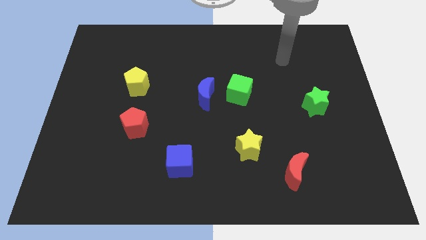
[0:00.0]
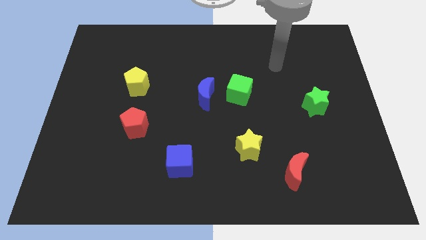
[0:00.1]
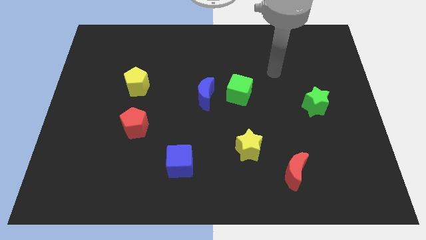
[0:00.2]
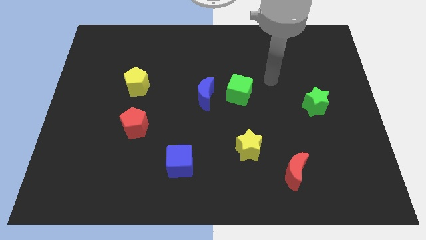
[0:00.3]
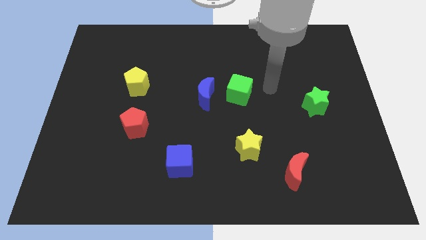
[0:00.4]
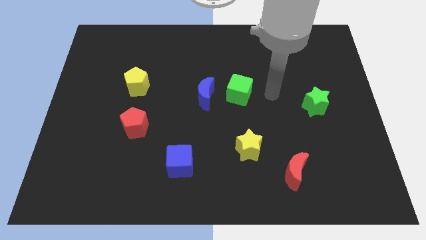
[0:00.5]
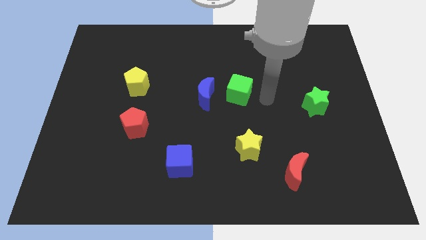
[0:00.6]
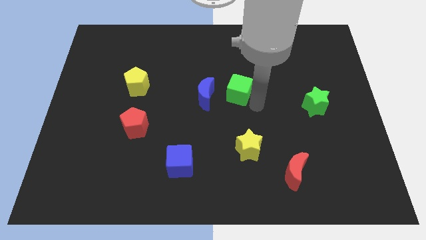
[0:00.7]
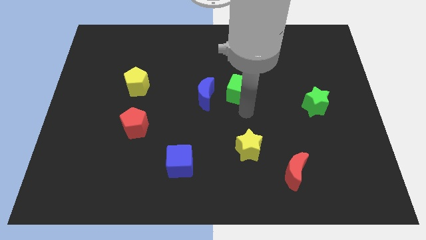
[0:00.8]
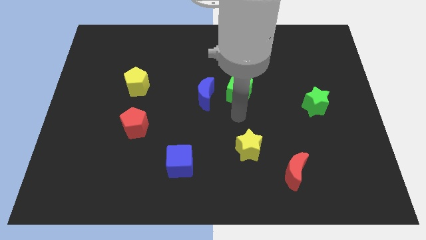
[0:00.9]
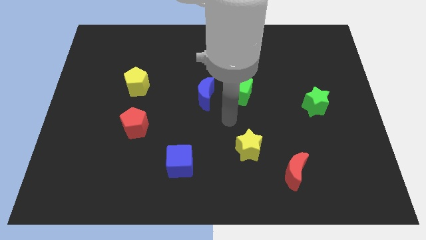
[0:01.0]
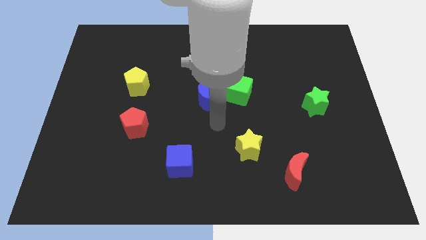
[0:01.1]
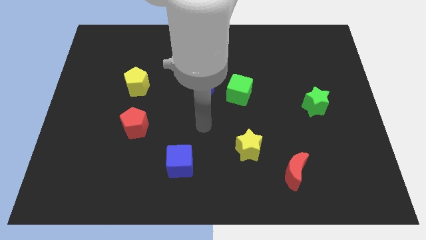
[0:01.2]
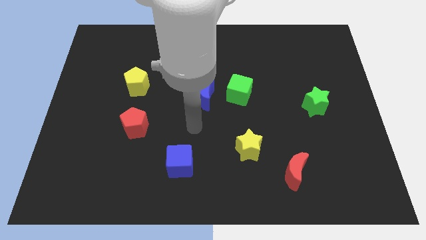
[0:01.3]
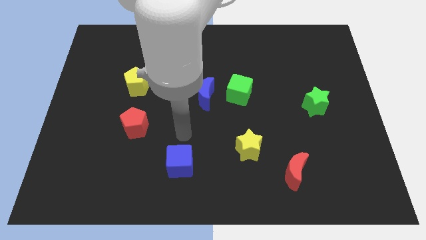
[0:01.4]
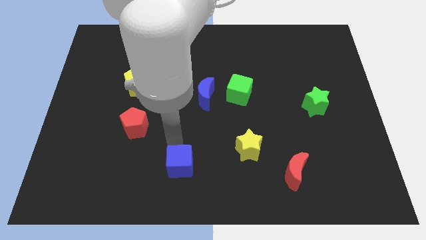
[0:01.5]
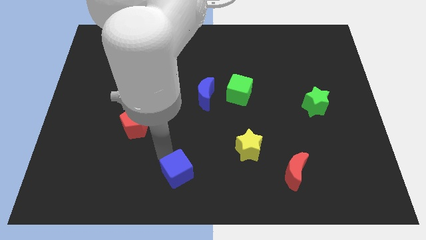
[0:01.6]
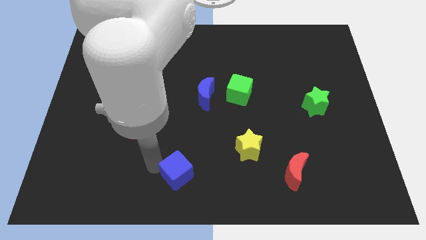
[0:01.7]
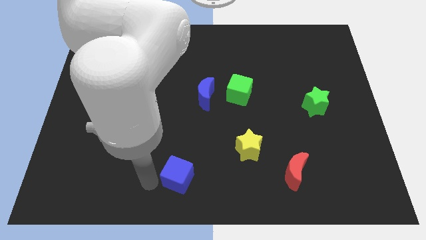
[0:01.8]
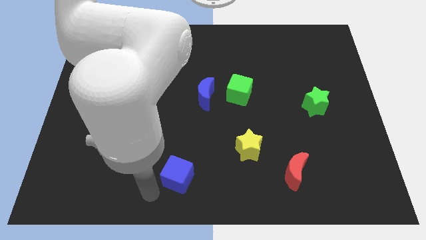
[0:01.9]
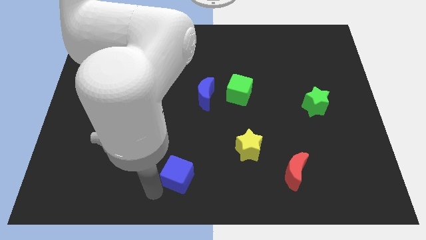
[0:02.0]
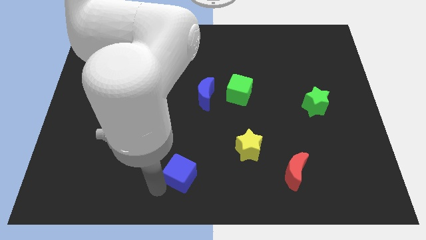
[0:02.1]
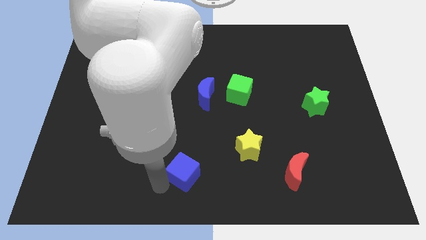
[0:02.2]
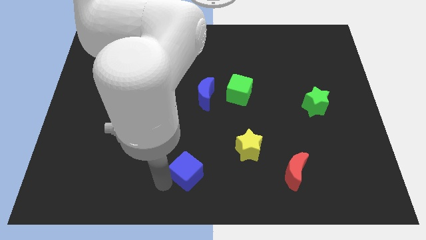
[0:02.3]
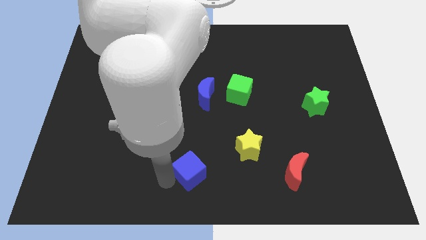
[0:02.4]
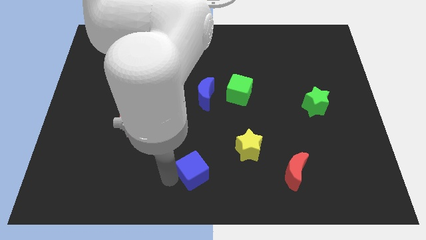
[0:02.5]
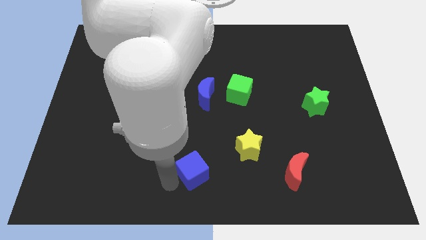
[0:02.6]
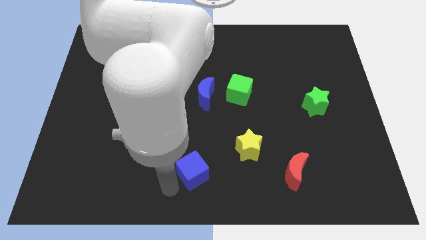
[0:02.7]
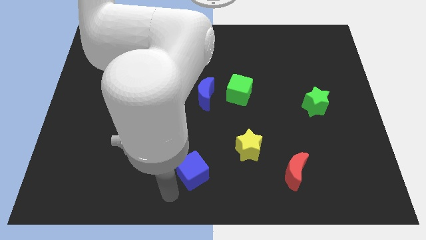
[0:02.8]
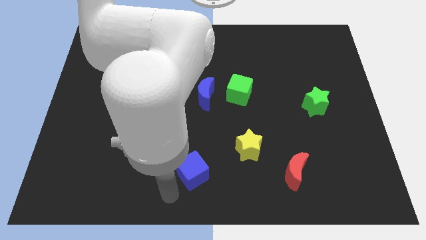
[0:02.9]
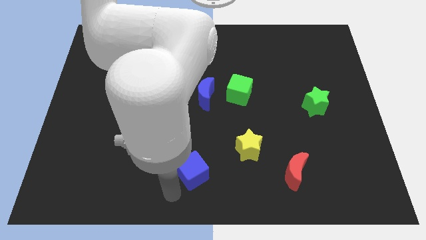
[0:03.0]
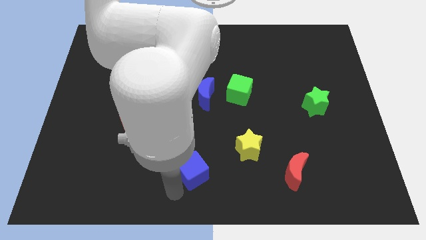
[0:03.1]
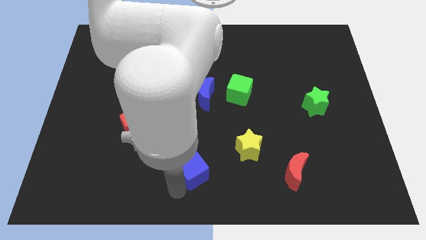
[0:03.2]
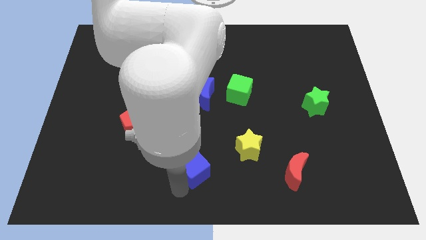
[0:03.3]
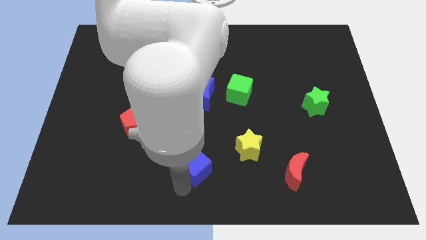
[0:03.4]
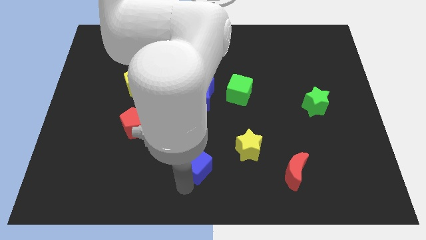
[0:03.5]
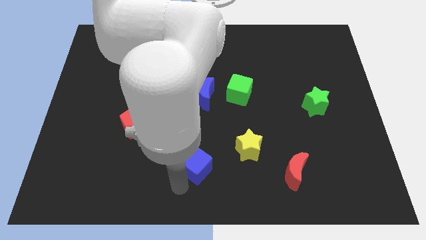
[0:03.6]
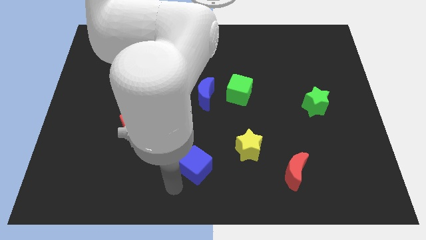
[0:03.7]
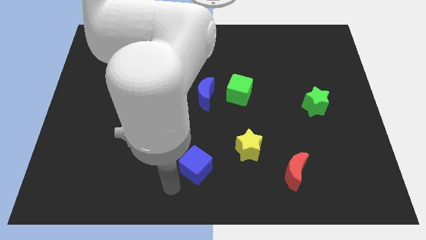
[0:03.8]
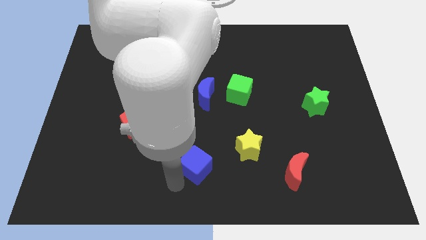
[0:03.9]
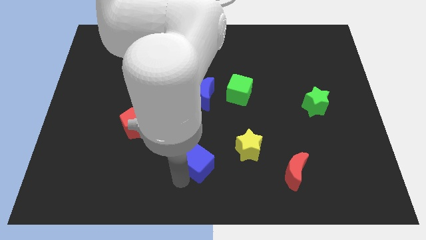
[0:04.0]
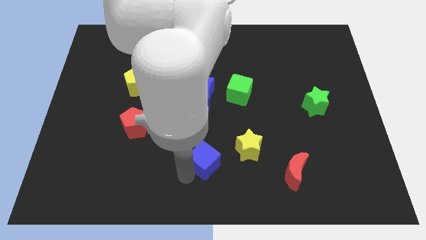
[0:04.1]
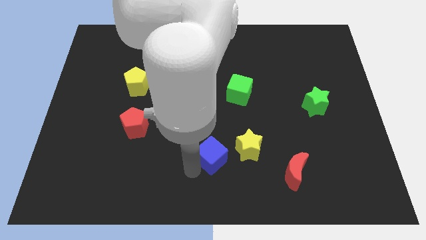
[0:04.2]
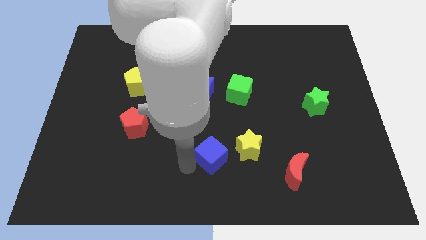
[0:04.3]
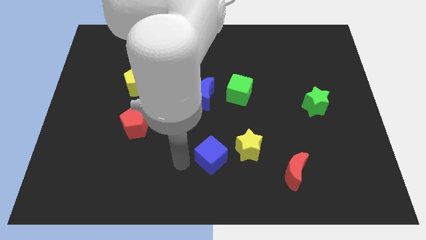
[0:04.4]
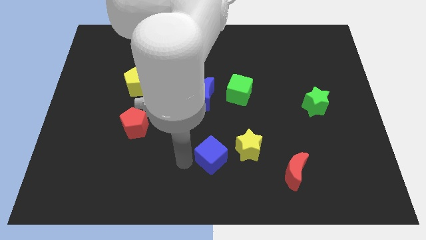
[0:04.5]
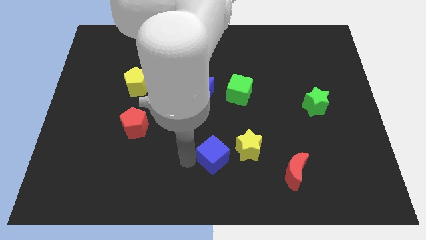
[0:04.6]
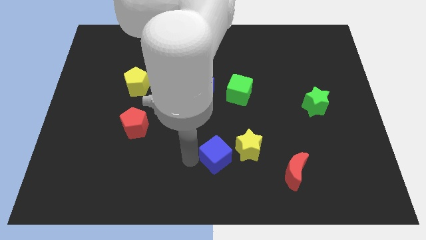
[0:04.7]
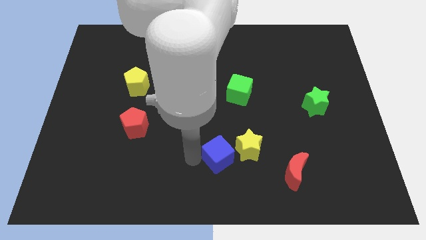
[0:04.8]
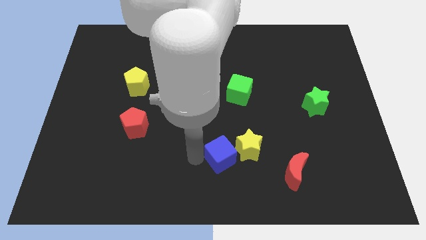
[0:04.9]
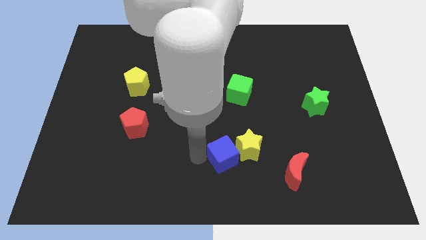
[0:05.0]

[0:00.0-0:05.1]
push the blue cube towards the yellow star

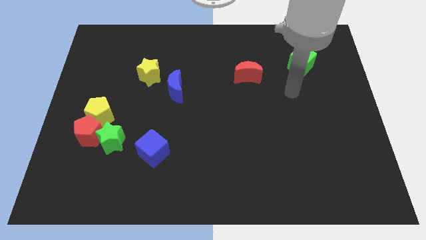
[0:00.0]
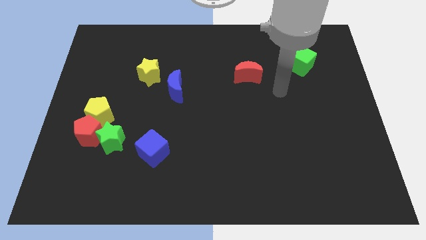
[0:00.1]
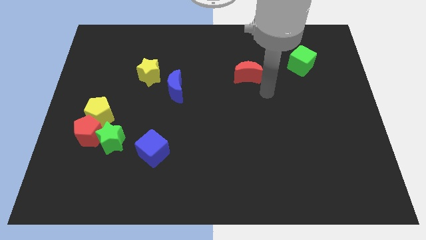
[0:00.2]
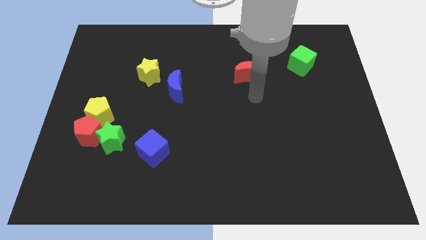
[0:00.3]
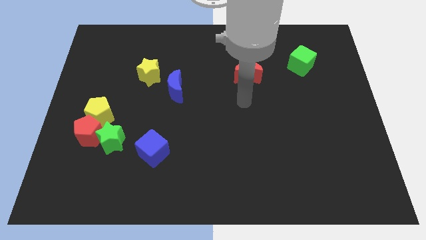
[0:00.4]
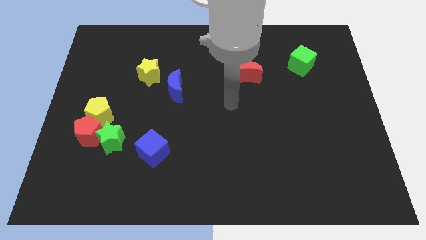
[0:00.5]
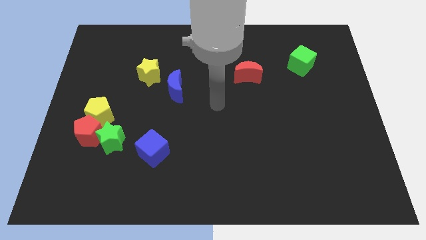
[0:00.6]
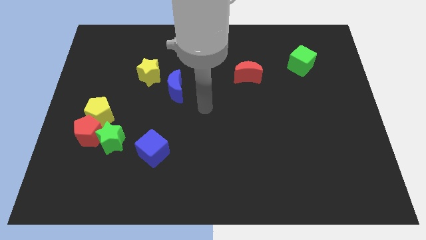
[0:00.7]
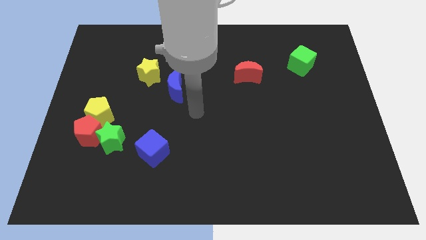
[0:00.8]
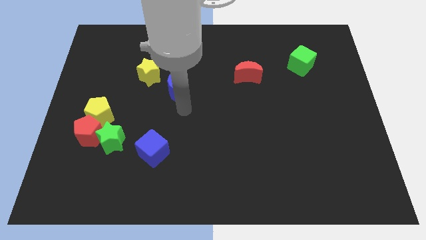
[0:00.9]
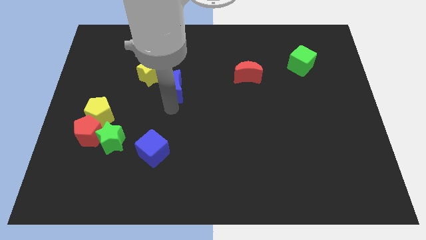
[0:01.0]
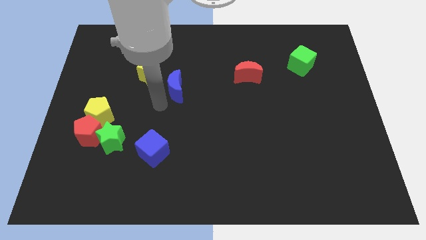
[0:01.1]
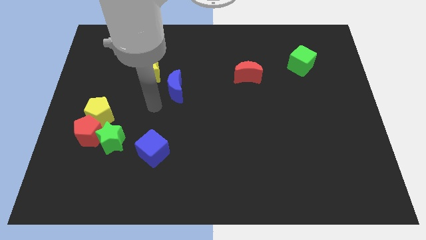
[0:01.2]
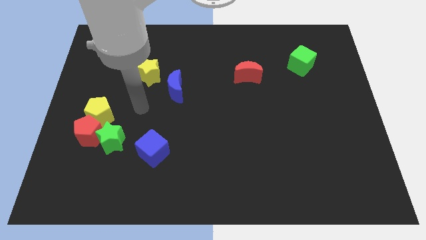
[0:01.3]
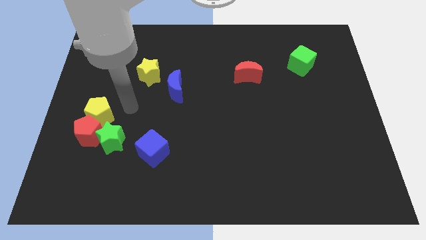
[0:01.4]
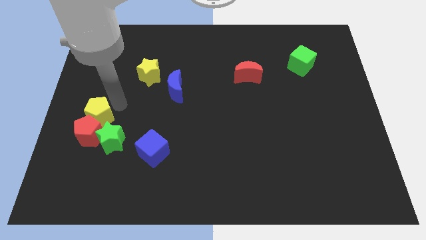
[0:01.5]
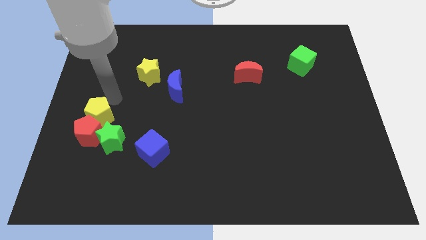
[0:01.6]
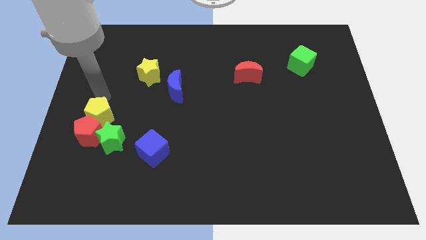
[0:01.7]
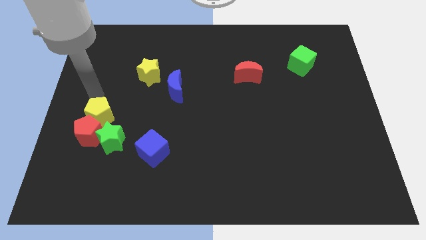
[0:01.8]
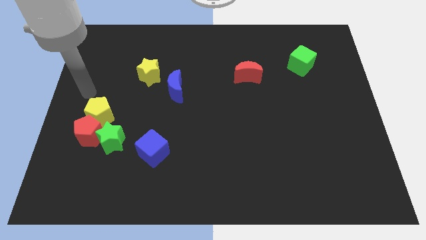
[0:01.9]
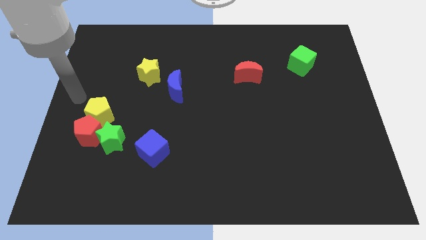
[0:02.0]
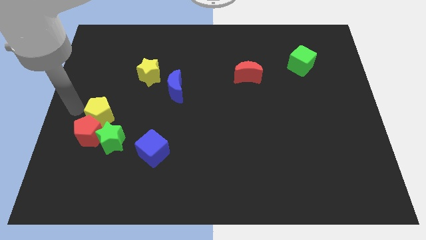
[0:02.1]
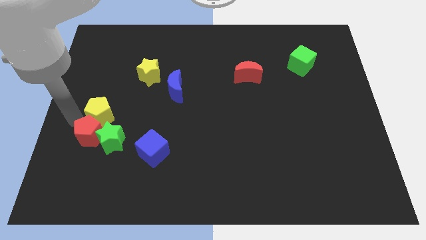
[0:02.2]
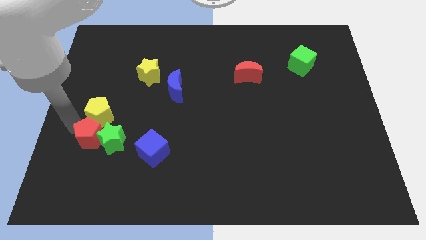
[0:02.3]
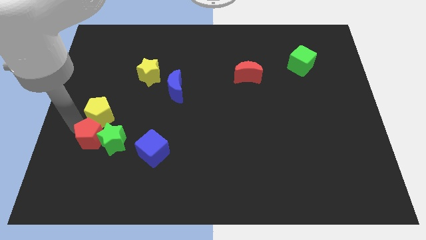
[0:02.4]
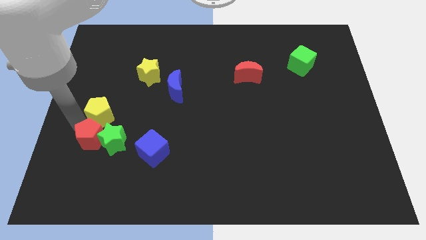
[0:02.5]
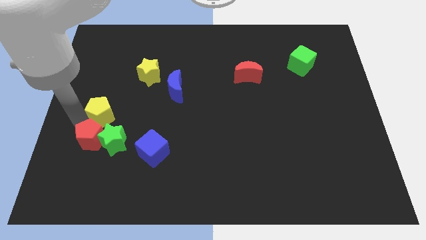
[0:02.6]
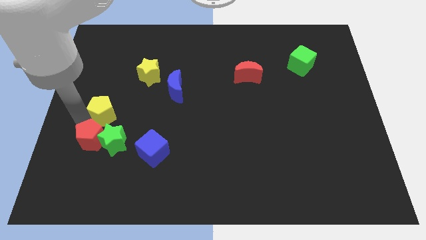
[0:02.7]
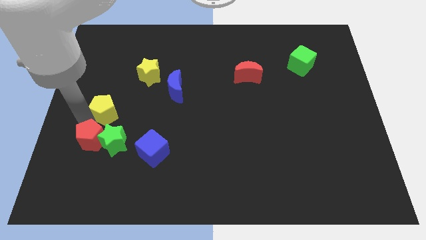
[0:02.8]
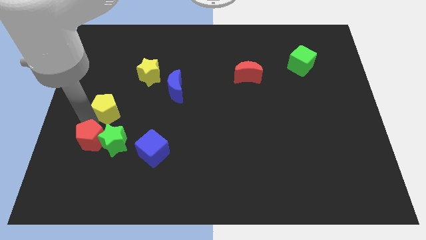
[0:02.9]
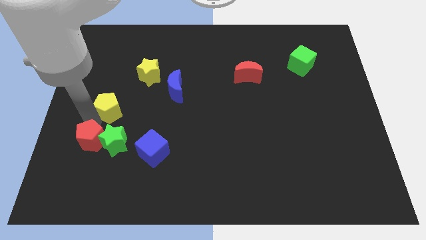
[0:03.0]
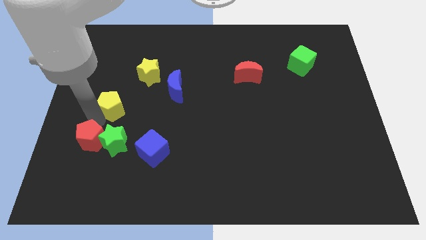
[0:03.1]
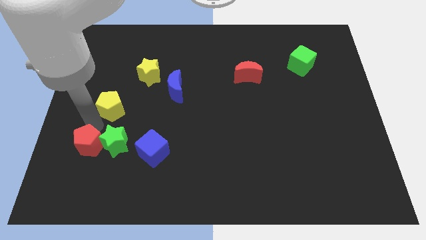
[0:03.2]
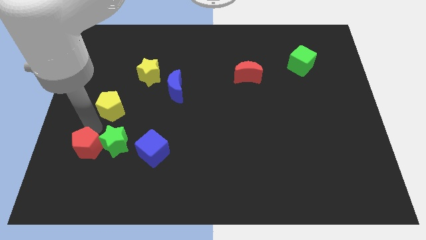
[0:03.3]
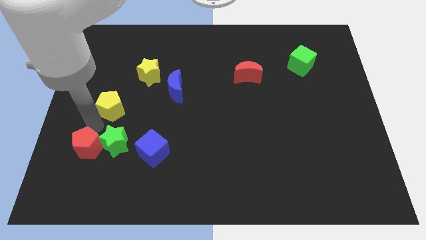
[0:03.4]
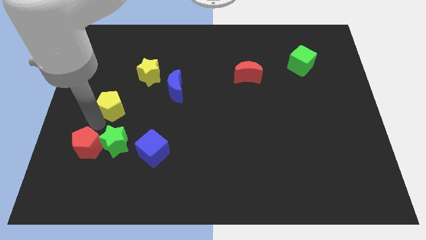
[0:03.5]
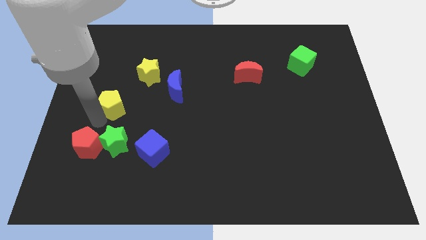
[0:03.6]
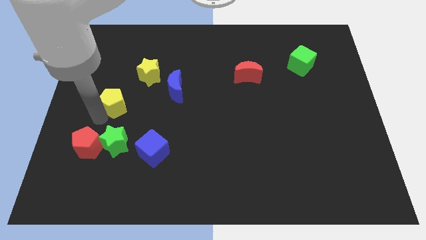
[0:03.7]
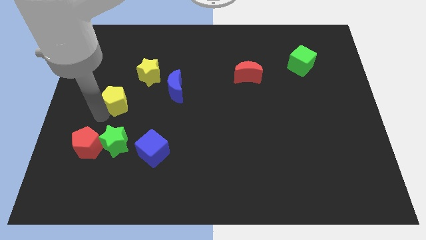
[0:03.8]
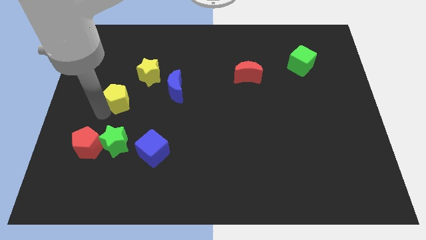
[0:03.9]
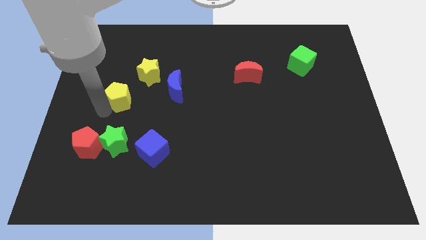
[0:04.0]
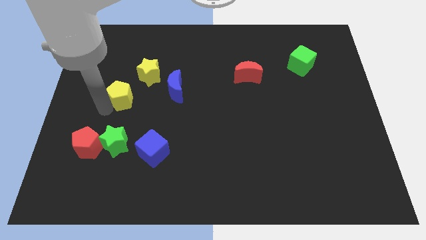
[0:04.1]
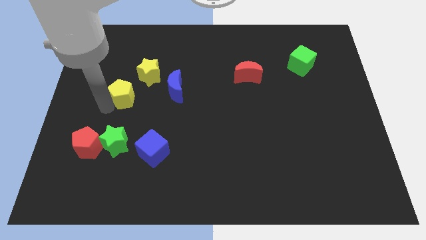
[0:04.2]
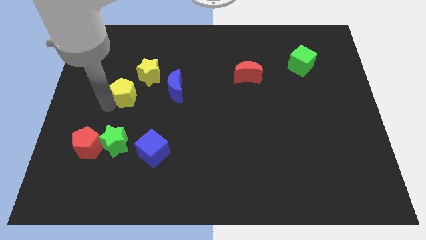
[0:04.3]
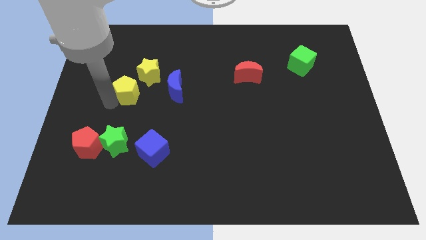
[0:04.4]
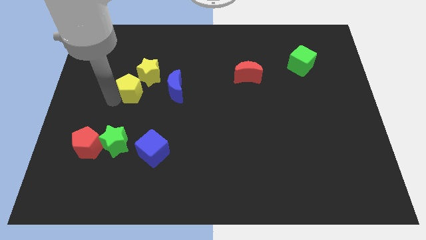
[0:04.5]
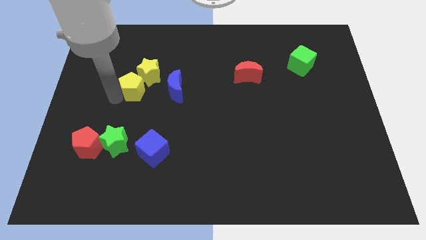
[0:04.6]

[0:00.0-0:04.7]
put the yellow pentagon next to the yellow star
